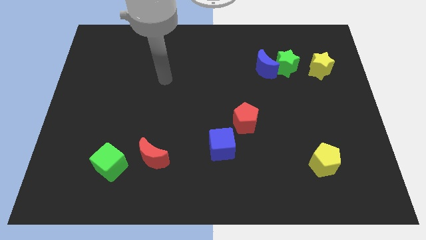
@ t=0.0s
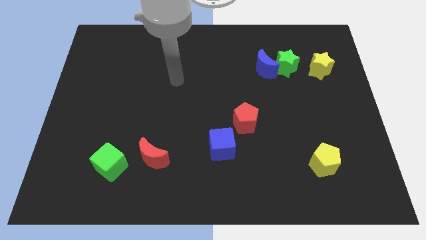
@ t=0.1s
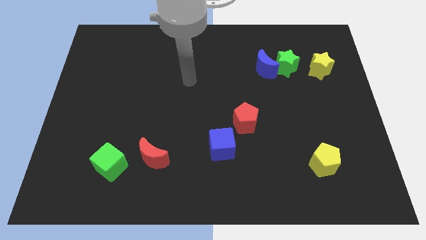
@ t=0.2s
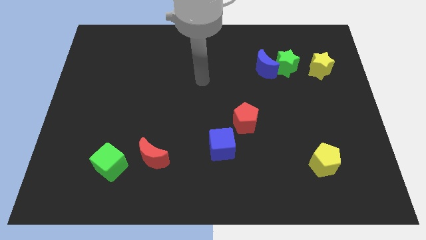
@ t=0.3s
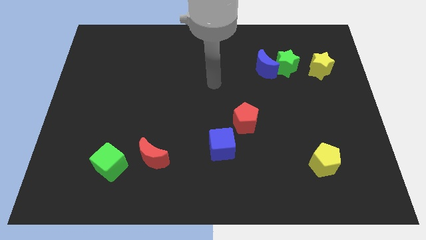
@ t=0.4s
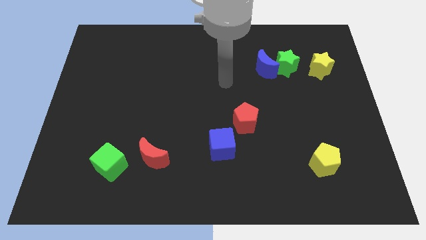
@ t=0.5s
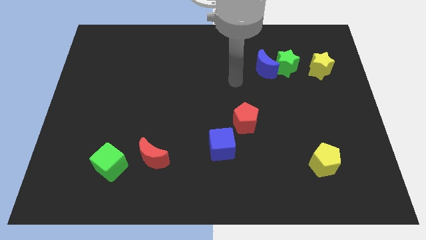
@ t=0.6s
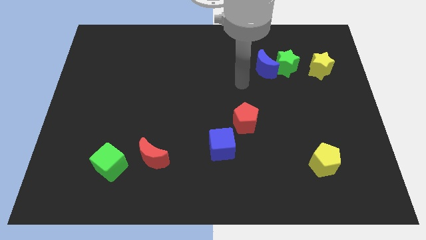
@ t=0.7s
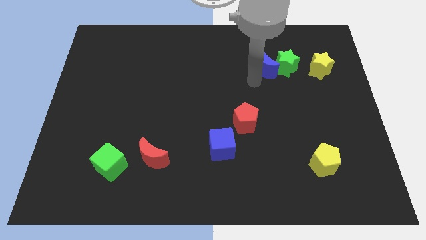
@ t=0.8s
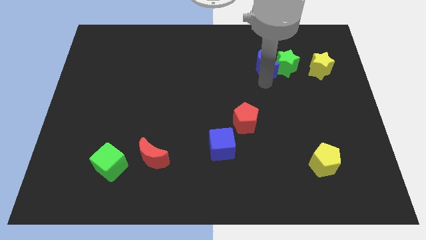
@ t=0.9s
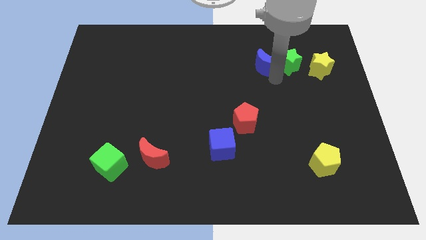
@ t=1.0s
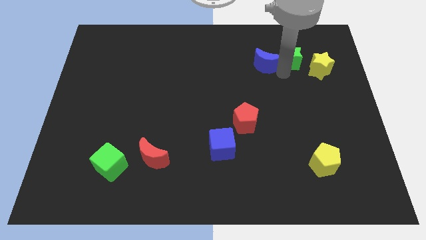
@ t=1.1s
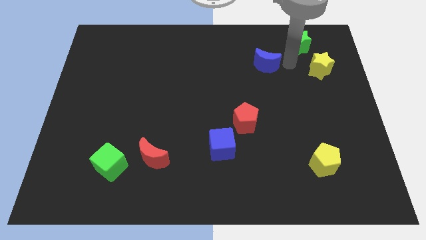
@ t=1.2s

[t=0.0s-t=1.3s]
move the blue moon away from the green star

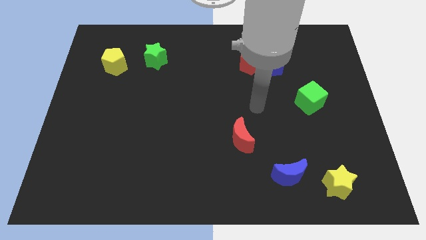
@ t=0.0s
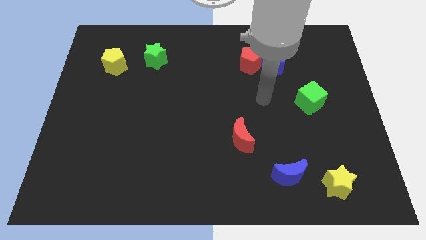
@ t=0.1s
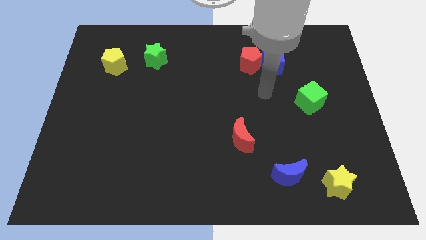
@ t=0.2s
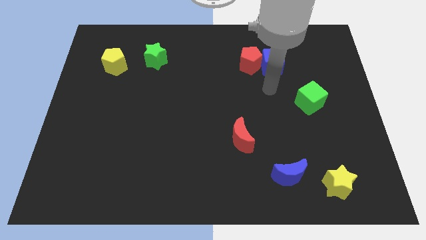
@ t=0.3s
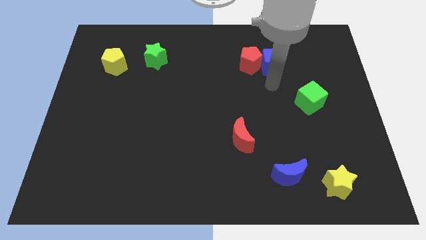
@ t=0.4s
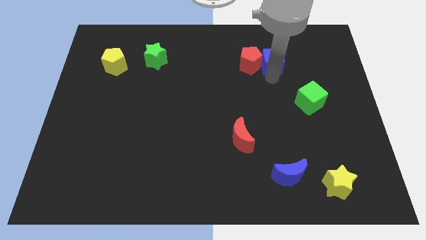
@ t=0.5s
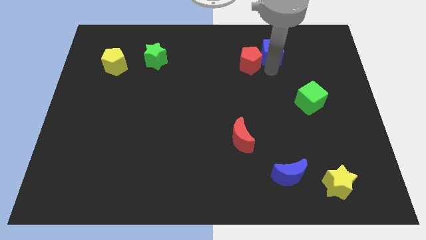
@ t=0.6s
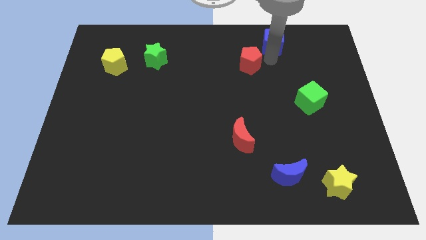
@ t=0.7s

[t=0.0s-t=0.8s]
pull the red pentagon apart from the blue cube

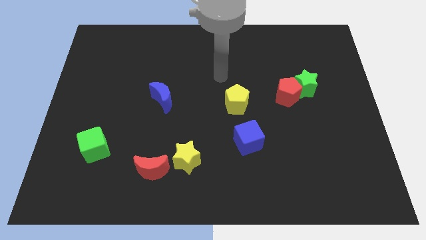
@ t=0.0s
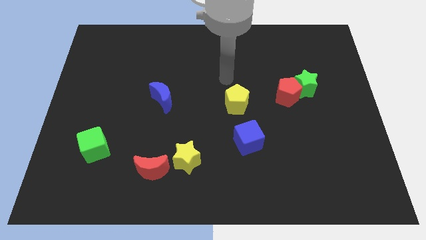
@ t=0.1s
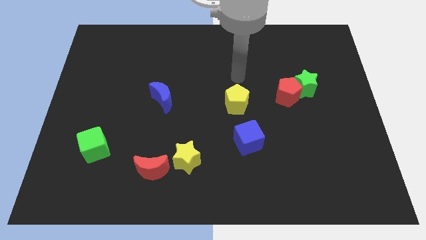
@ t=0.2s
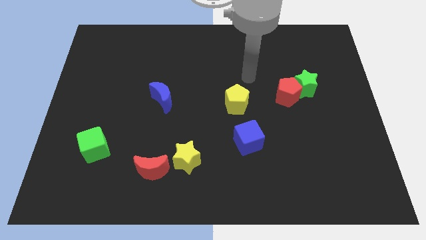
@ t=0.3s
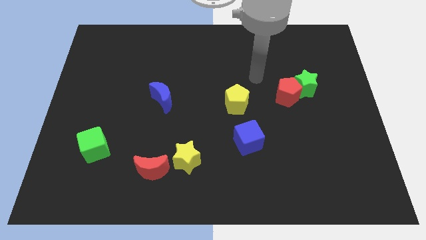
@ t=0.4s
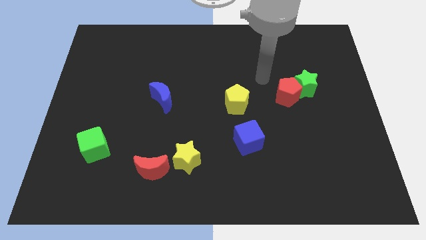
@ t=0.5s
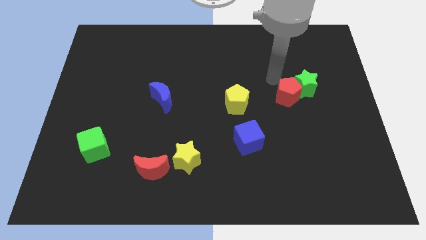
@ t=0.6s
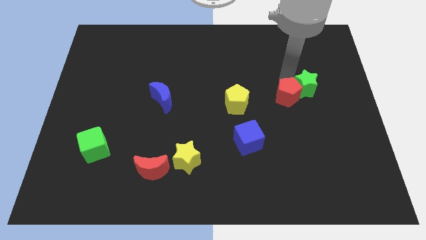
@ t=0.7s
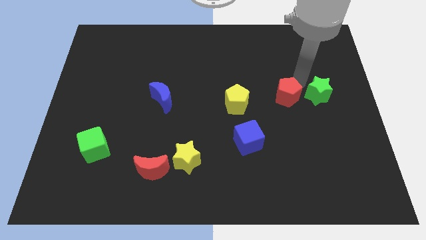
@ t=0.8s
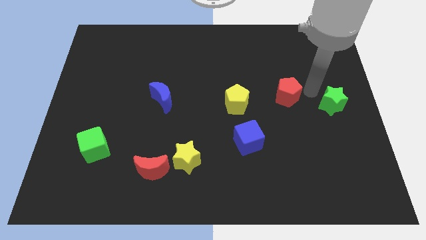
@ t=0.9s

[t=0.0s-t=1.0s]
move the red pentagon away from the green star

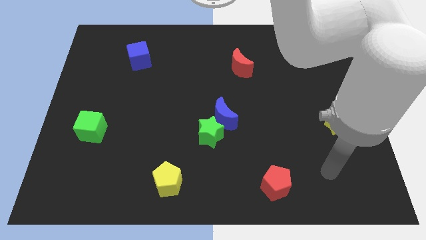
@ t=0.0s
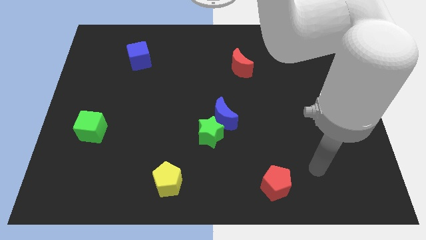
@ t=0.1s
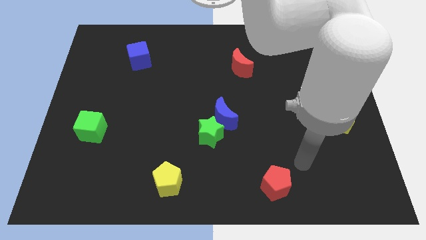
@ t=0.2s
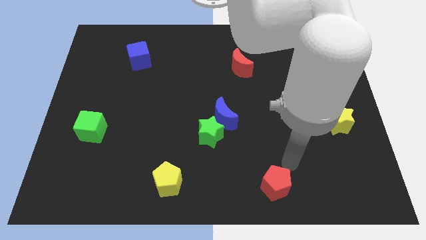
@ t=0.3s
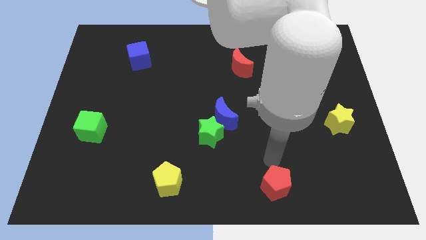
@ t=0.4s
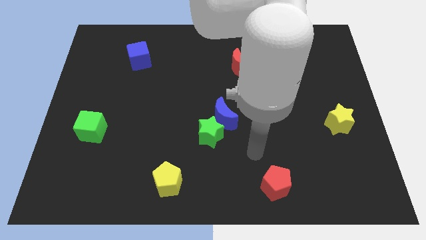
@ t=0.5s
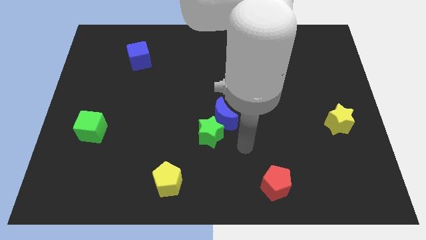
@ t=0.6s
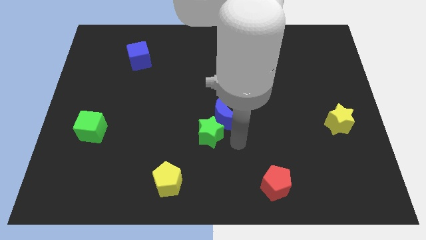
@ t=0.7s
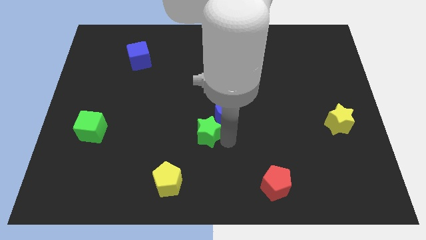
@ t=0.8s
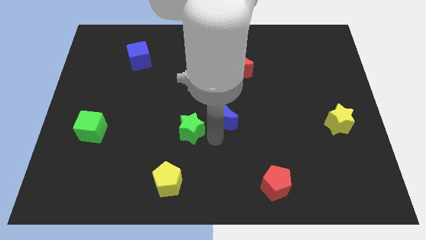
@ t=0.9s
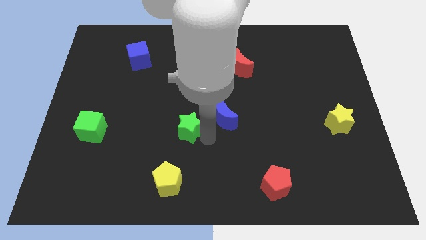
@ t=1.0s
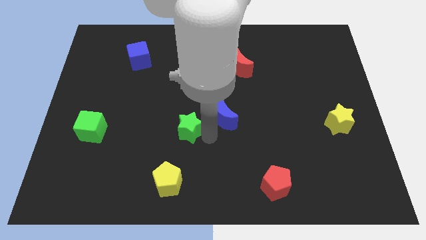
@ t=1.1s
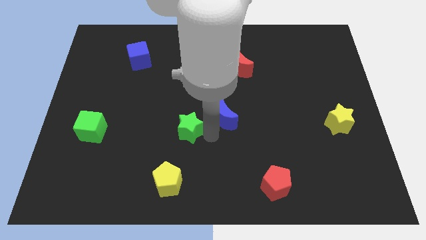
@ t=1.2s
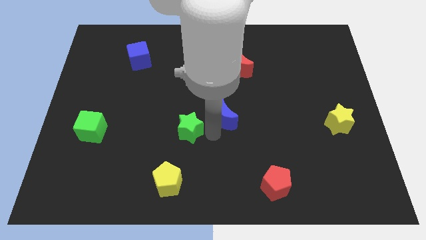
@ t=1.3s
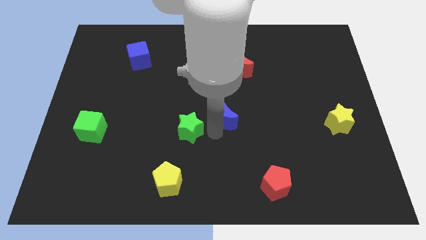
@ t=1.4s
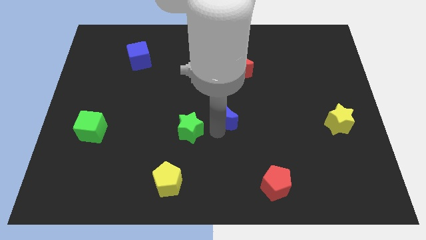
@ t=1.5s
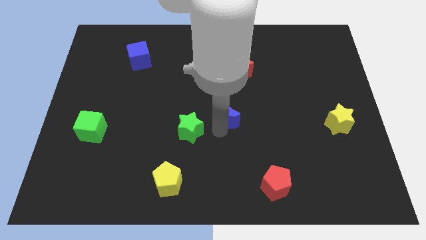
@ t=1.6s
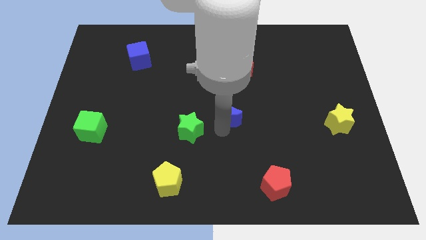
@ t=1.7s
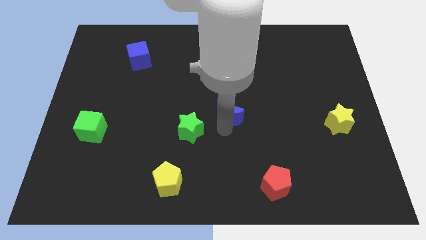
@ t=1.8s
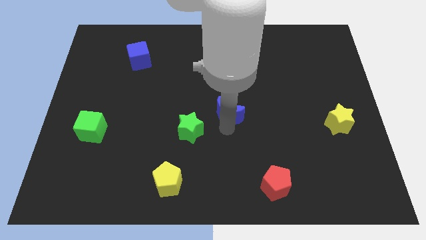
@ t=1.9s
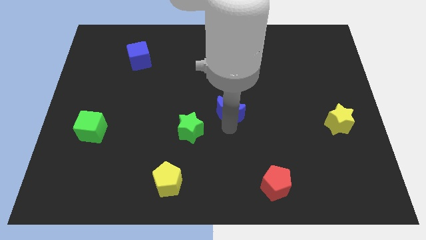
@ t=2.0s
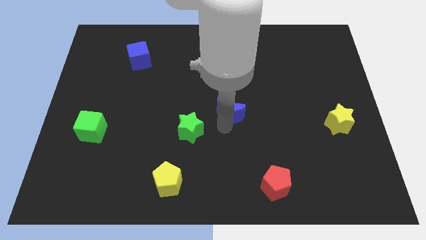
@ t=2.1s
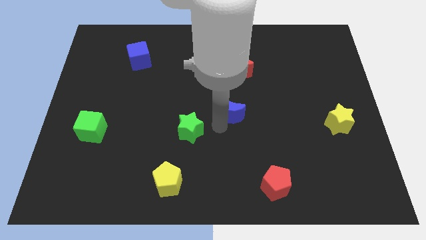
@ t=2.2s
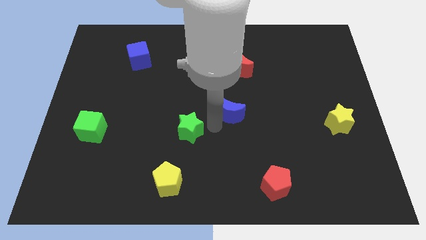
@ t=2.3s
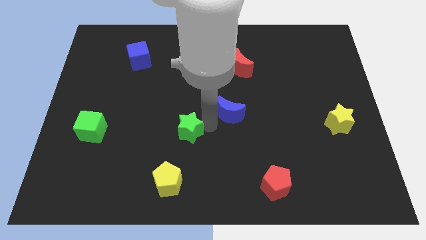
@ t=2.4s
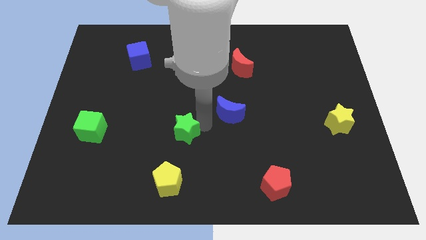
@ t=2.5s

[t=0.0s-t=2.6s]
pull the blue moon apart from the green star

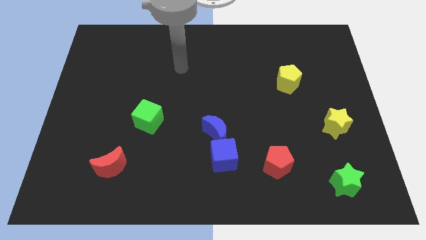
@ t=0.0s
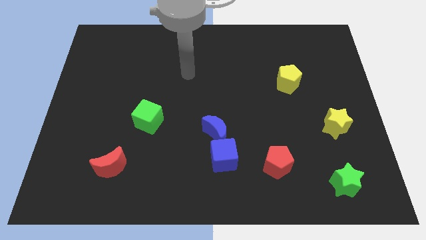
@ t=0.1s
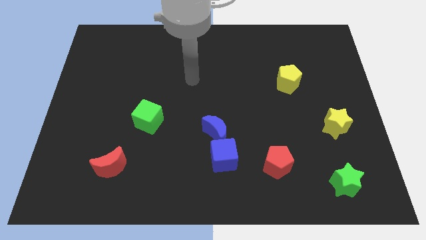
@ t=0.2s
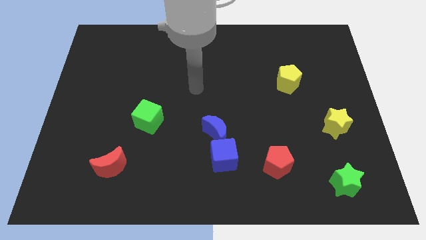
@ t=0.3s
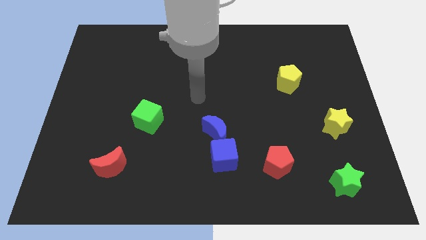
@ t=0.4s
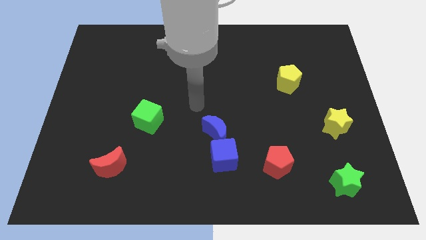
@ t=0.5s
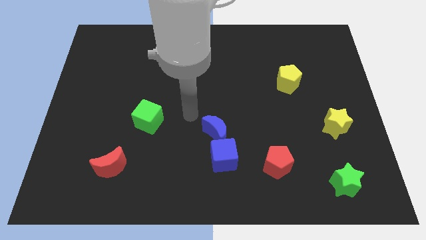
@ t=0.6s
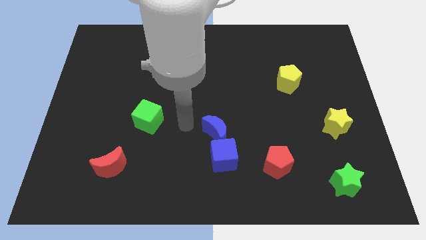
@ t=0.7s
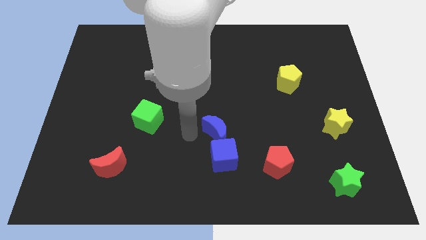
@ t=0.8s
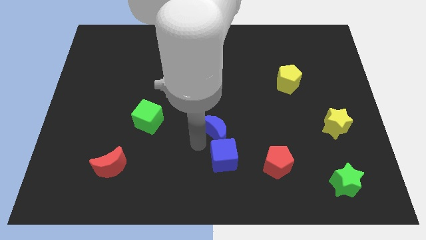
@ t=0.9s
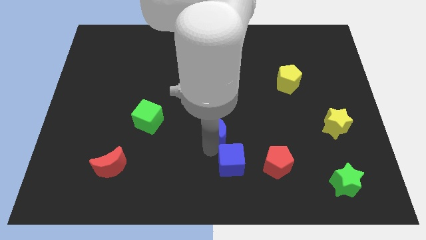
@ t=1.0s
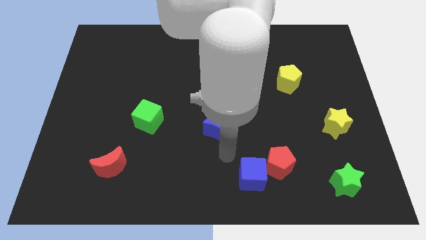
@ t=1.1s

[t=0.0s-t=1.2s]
move the blue moon away from the blue cube

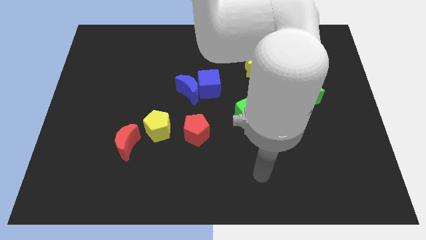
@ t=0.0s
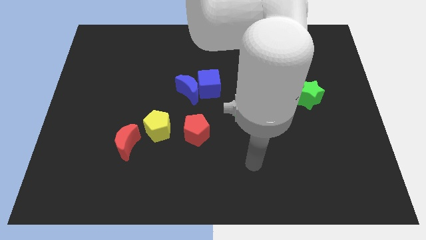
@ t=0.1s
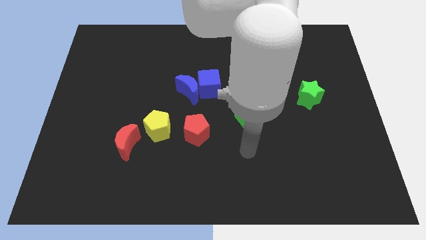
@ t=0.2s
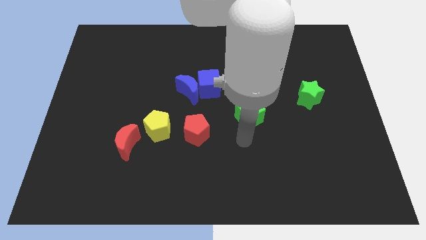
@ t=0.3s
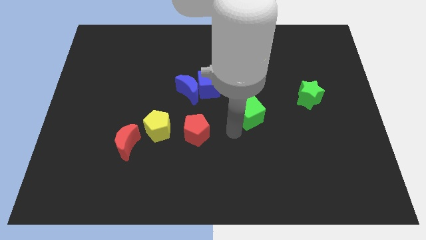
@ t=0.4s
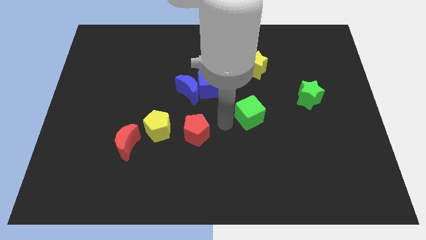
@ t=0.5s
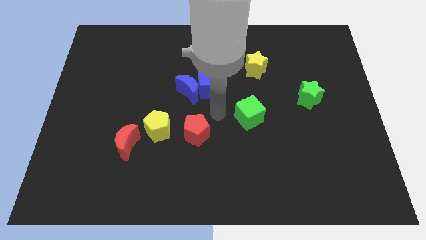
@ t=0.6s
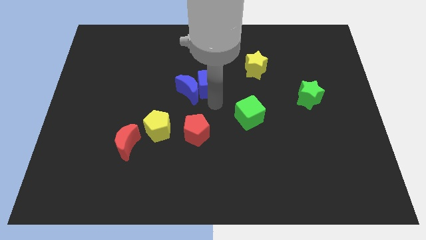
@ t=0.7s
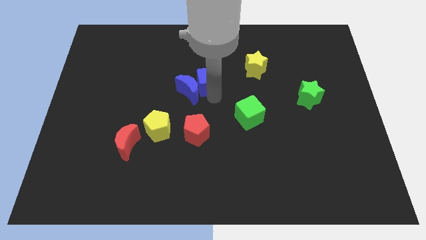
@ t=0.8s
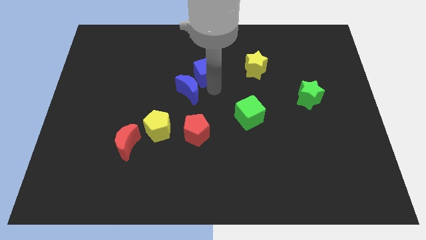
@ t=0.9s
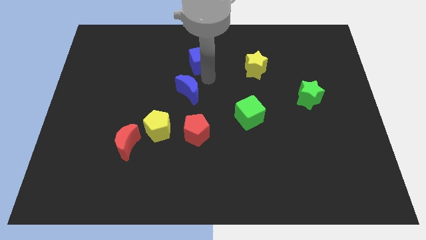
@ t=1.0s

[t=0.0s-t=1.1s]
separate the blue moon from the blue cube

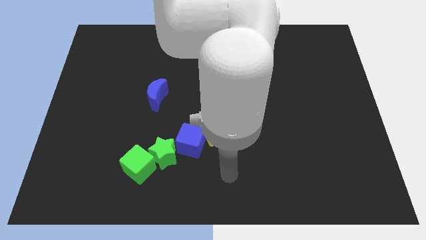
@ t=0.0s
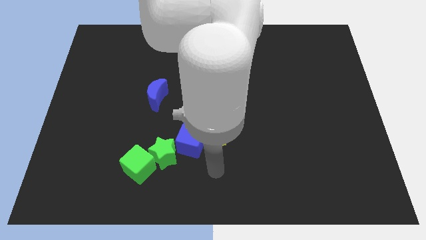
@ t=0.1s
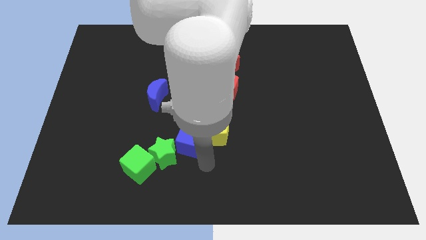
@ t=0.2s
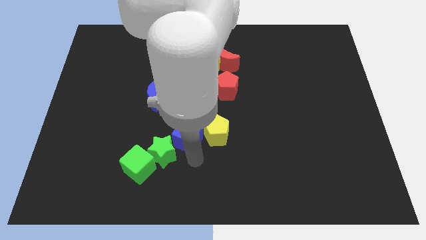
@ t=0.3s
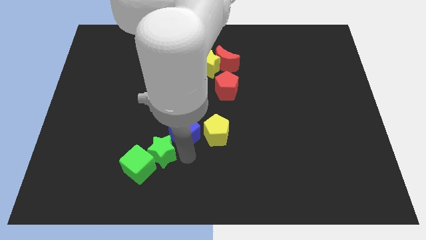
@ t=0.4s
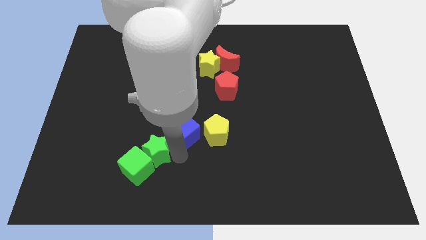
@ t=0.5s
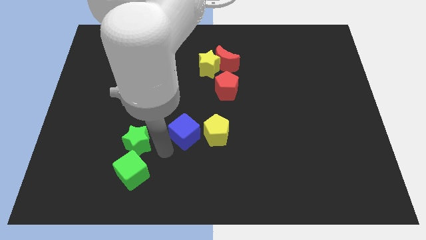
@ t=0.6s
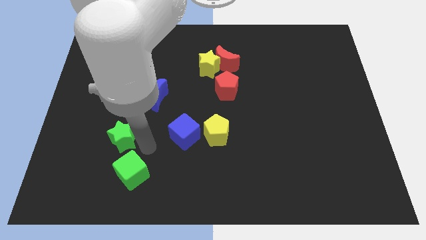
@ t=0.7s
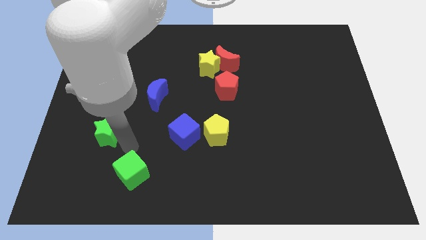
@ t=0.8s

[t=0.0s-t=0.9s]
separate the green cube from the green star
